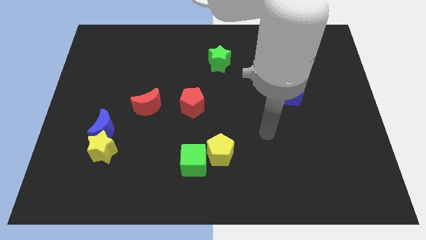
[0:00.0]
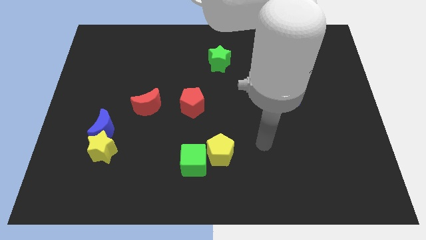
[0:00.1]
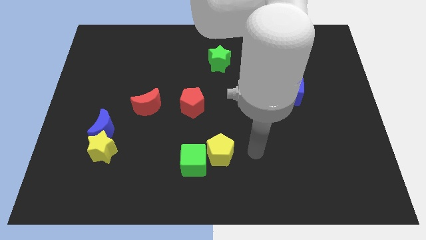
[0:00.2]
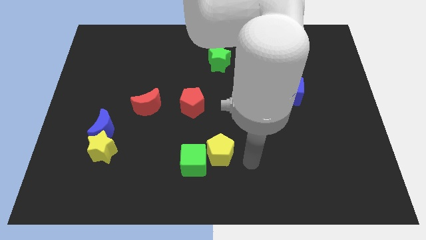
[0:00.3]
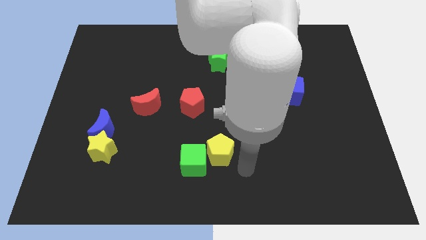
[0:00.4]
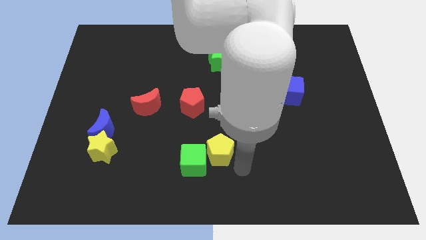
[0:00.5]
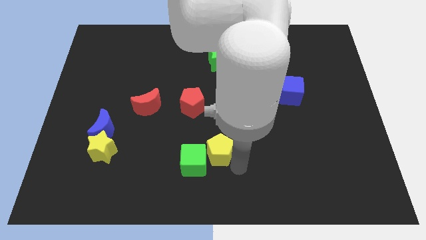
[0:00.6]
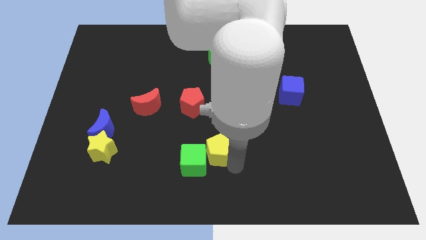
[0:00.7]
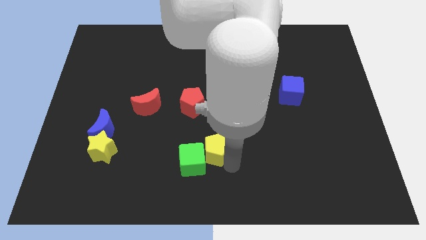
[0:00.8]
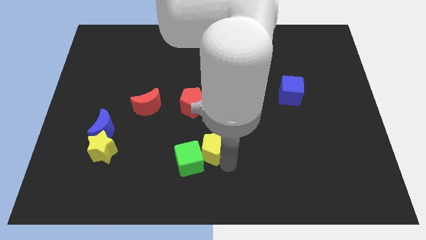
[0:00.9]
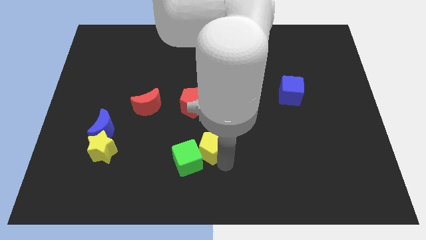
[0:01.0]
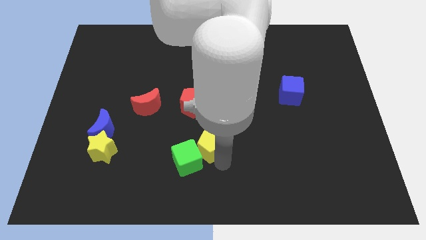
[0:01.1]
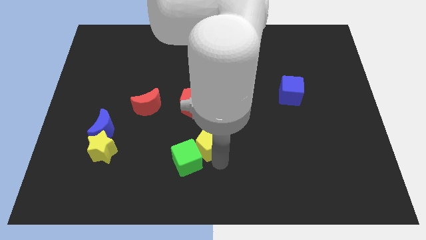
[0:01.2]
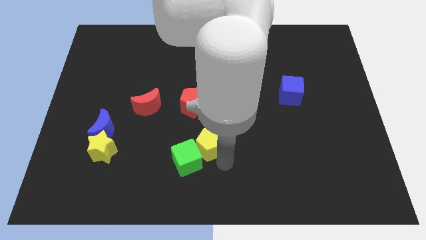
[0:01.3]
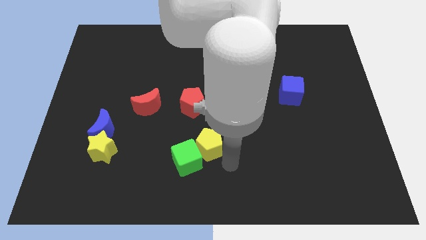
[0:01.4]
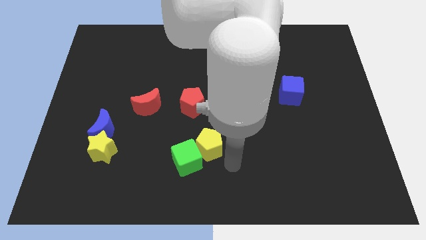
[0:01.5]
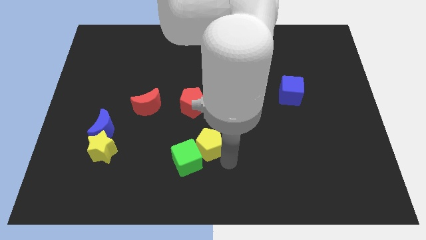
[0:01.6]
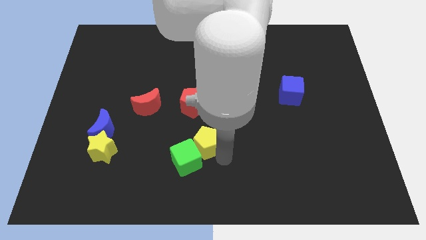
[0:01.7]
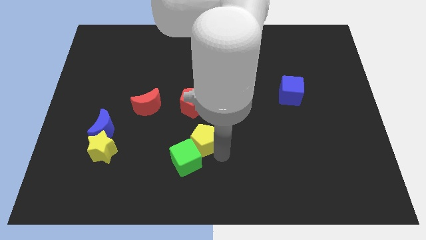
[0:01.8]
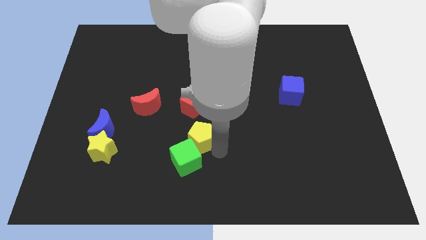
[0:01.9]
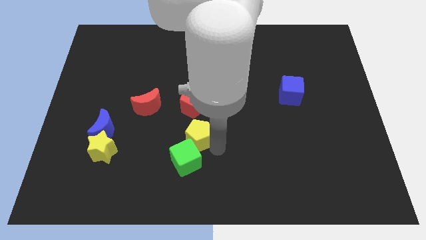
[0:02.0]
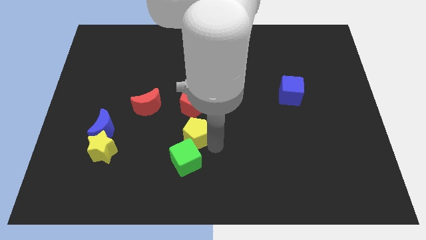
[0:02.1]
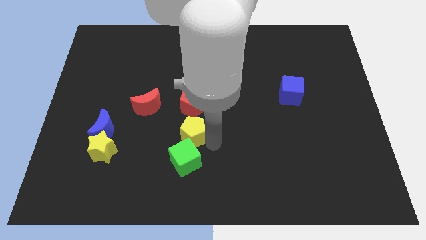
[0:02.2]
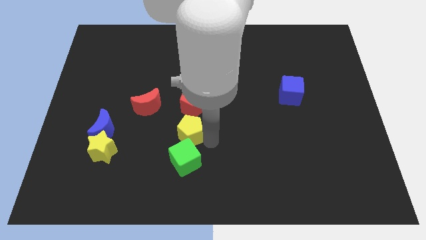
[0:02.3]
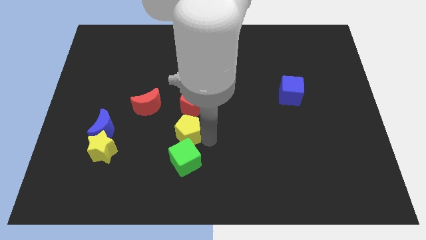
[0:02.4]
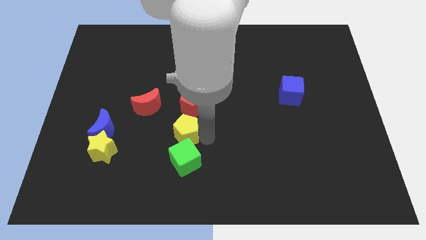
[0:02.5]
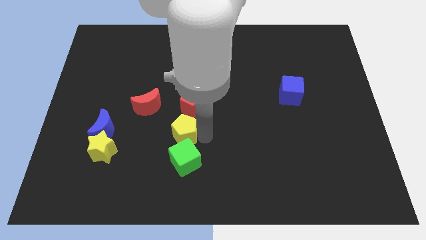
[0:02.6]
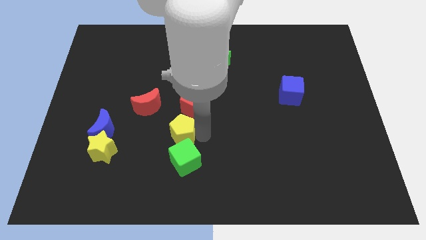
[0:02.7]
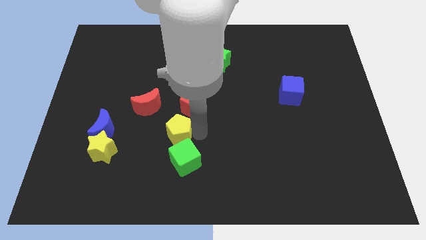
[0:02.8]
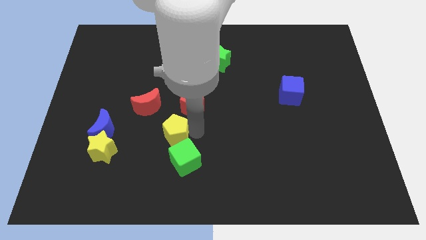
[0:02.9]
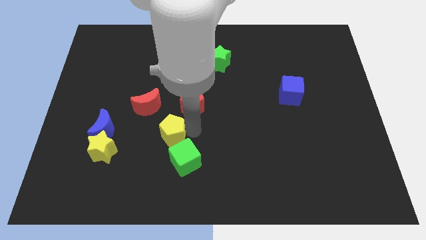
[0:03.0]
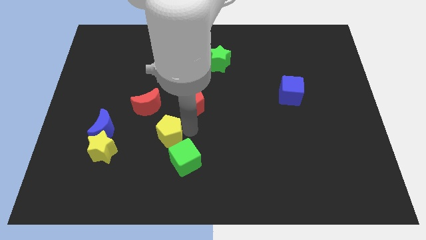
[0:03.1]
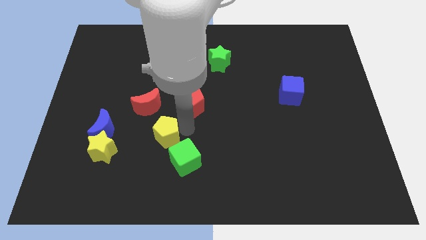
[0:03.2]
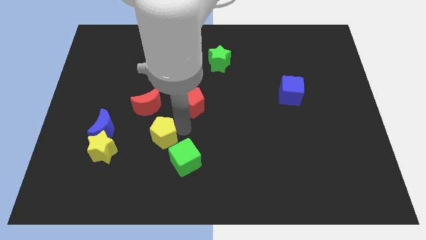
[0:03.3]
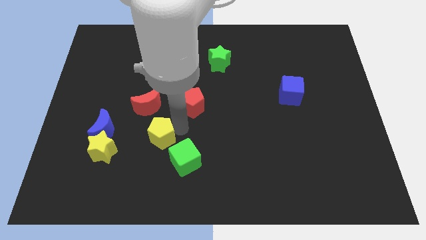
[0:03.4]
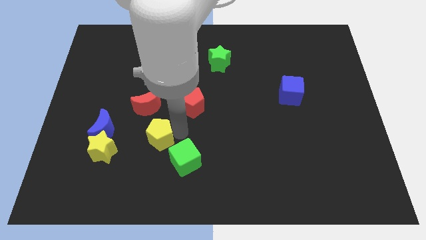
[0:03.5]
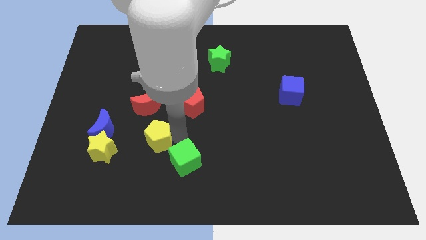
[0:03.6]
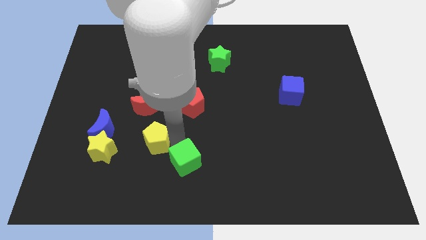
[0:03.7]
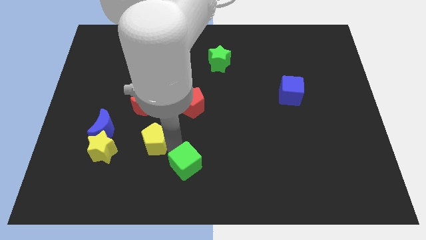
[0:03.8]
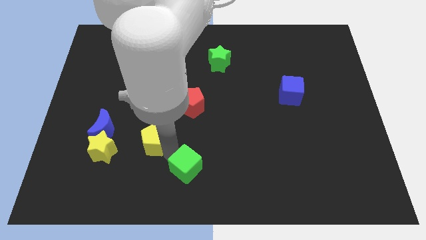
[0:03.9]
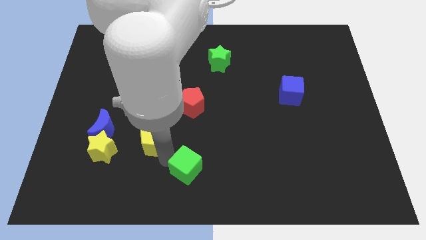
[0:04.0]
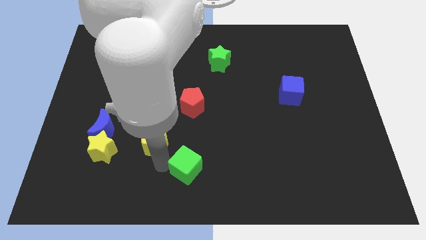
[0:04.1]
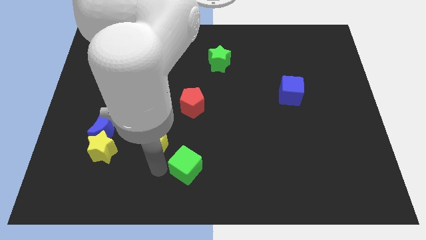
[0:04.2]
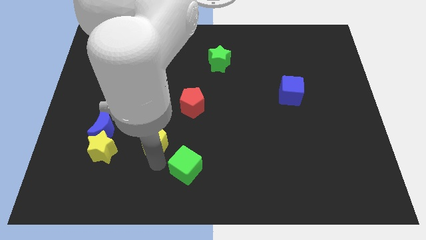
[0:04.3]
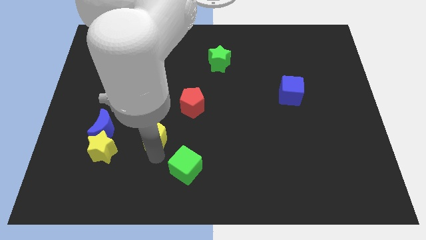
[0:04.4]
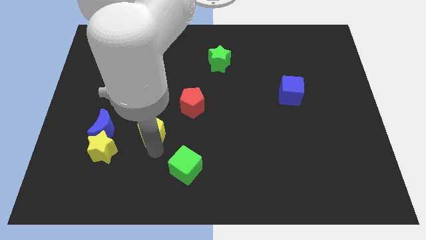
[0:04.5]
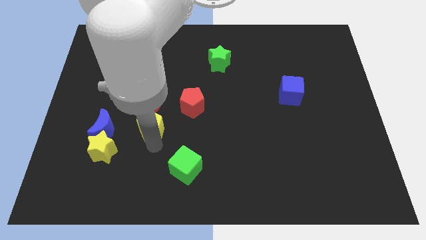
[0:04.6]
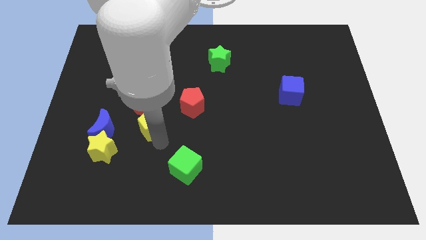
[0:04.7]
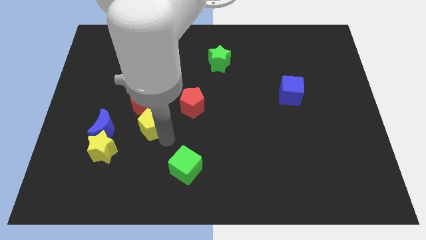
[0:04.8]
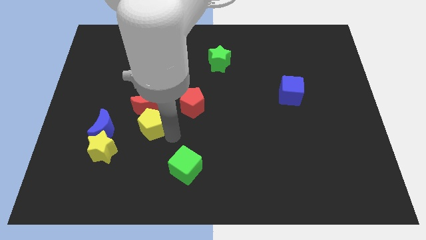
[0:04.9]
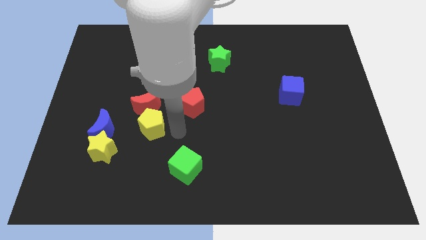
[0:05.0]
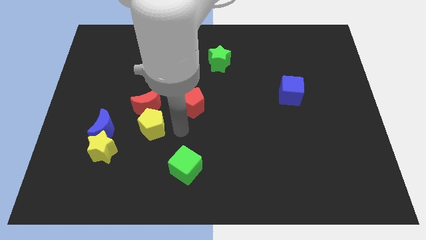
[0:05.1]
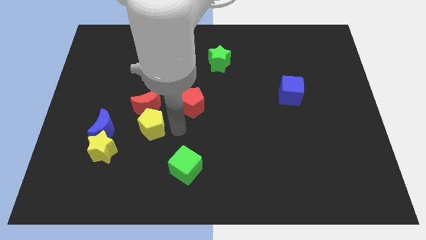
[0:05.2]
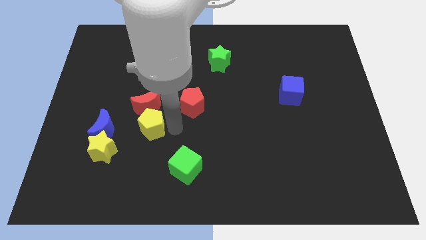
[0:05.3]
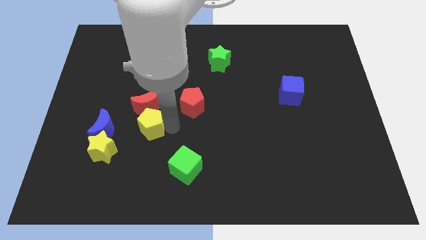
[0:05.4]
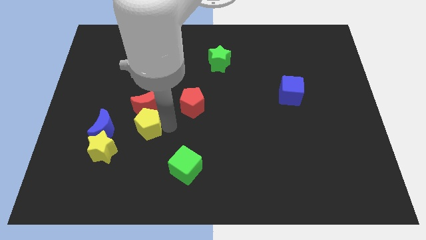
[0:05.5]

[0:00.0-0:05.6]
push the yellow pentagon to the bottom left side of the red moon

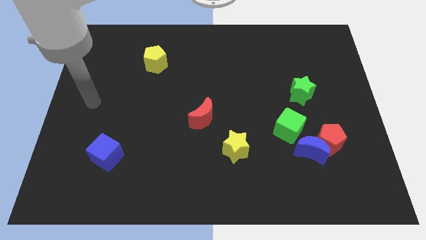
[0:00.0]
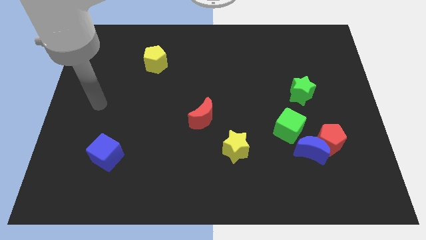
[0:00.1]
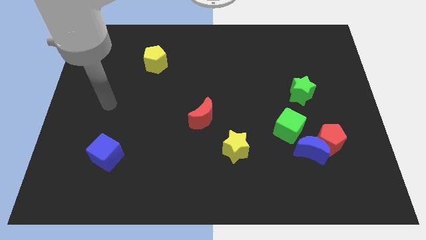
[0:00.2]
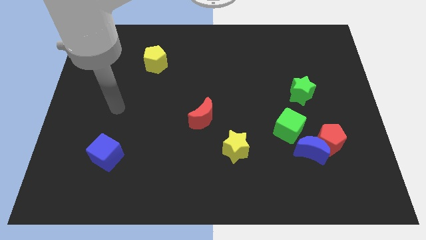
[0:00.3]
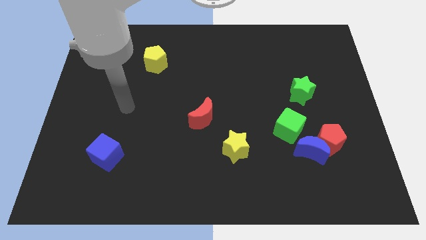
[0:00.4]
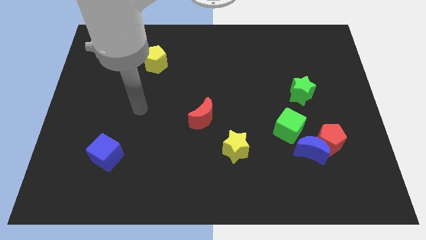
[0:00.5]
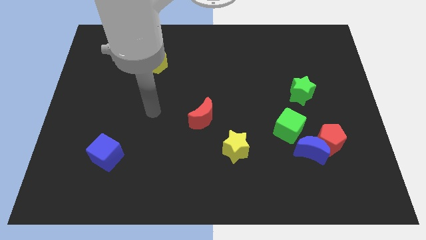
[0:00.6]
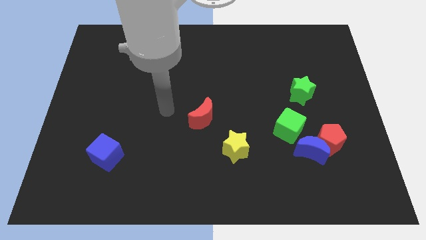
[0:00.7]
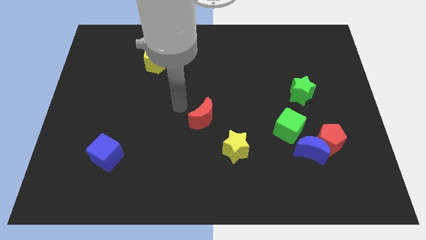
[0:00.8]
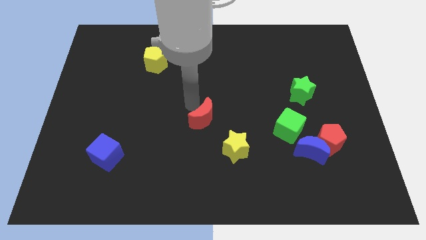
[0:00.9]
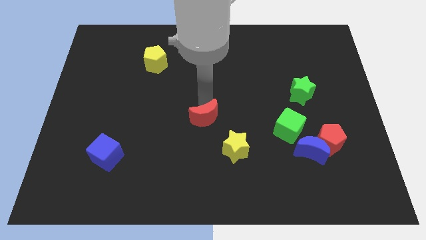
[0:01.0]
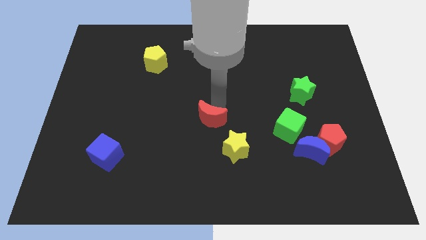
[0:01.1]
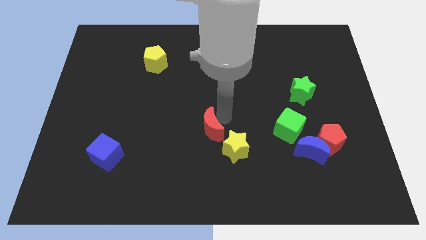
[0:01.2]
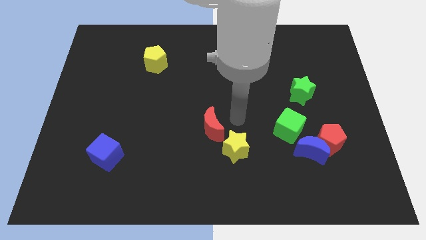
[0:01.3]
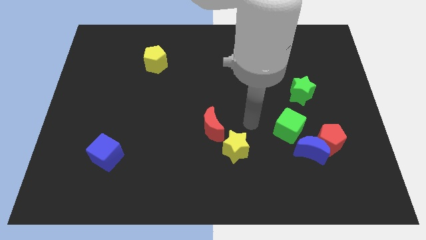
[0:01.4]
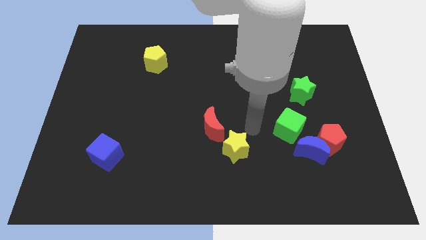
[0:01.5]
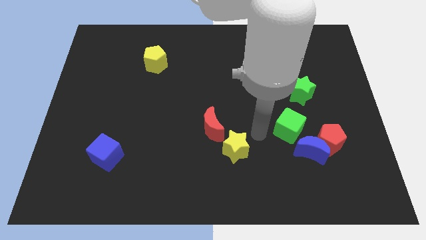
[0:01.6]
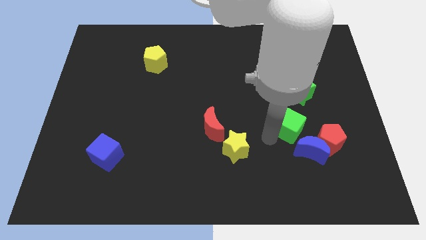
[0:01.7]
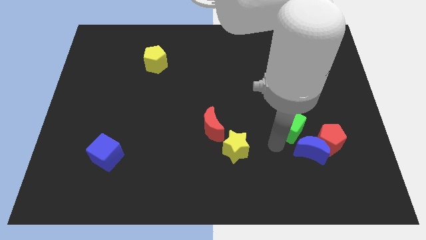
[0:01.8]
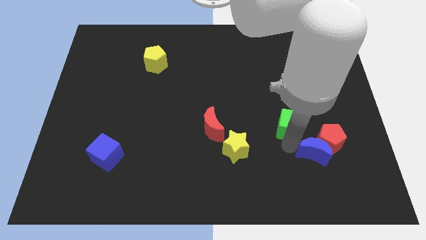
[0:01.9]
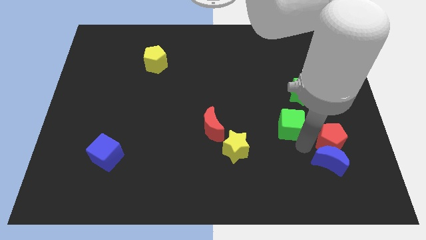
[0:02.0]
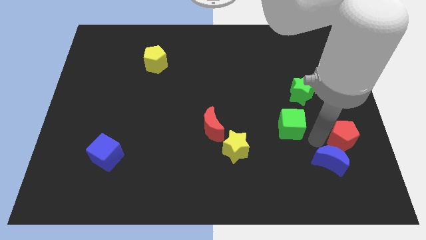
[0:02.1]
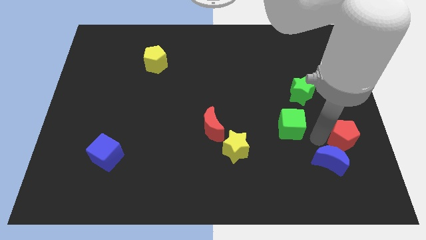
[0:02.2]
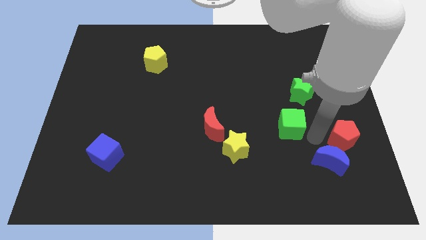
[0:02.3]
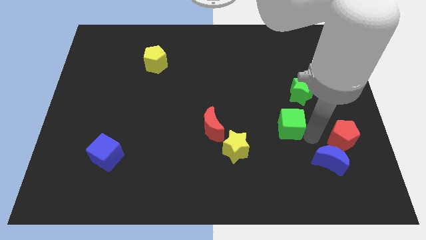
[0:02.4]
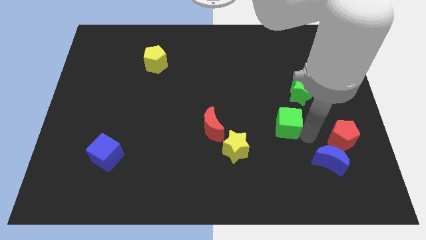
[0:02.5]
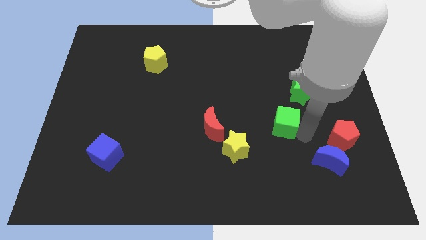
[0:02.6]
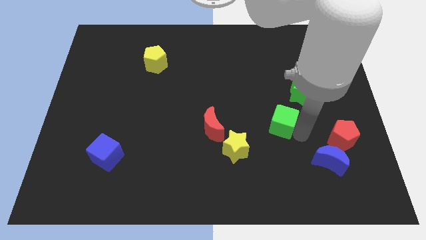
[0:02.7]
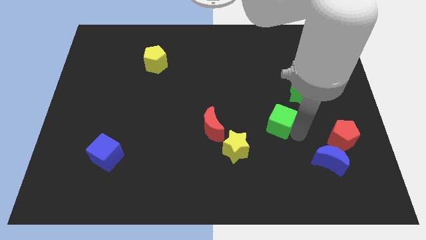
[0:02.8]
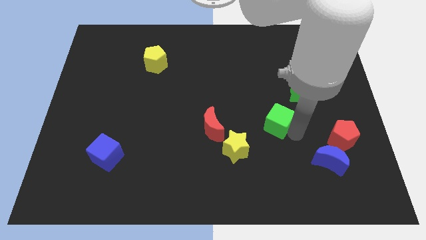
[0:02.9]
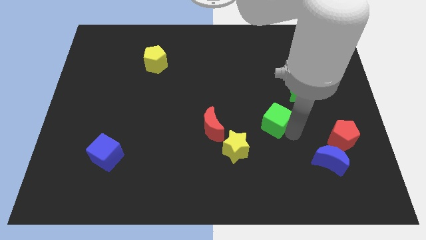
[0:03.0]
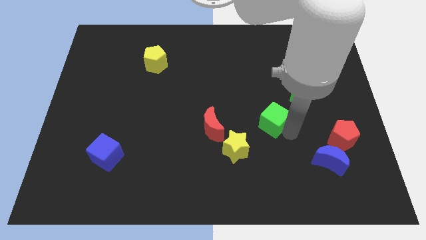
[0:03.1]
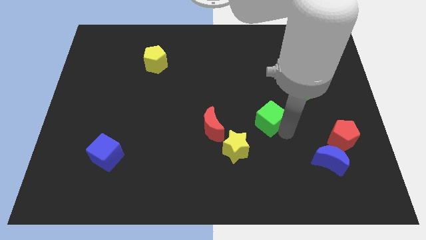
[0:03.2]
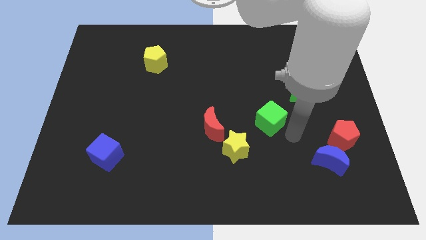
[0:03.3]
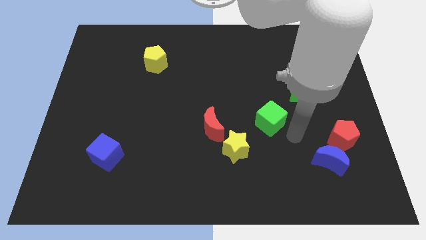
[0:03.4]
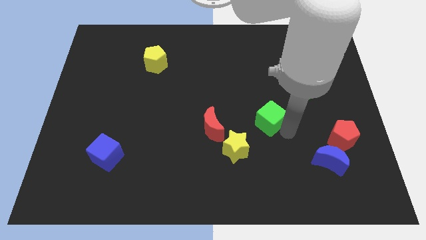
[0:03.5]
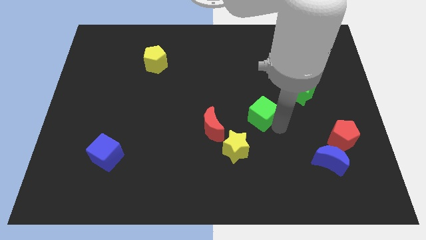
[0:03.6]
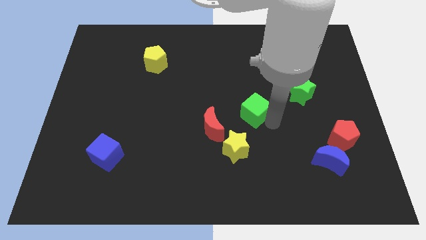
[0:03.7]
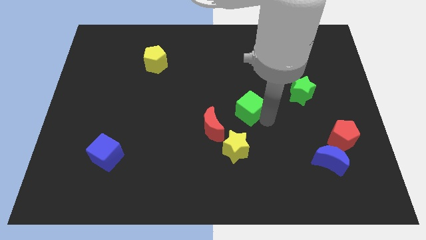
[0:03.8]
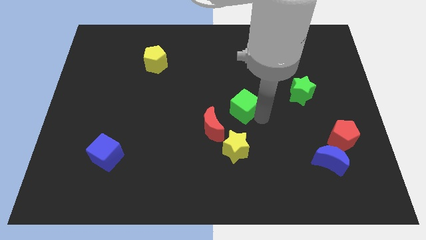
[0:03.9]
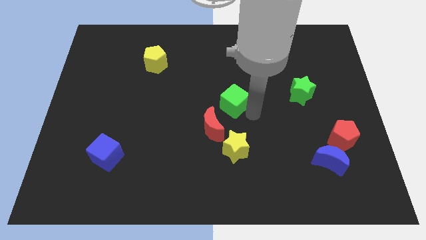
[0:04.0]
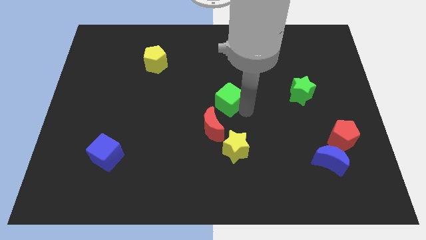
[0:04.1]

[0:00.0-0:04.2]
move the green cube to the top side of the red moon
